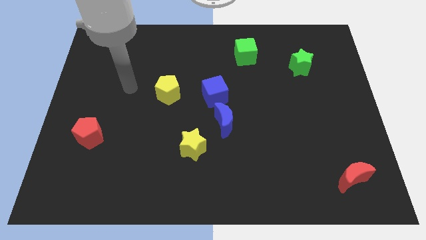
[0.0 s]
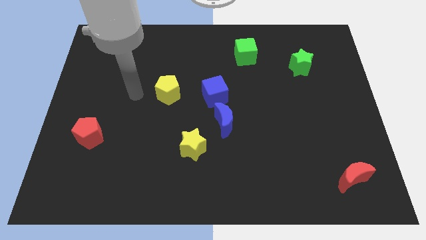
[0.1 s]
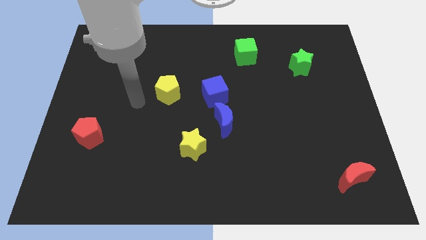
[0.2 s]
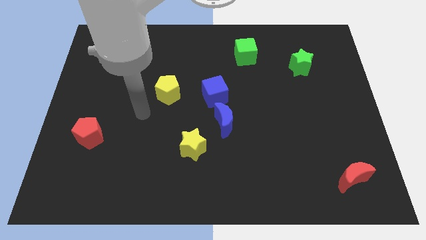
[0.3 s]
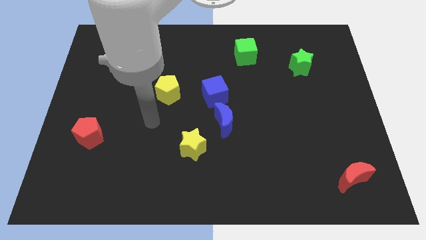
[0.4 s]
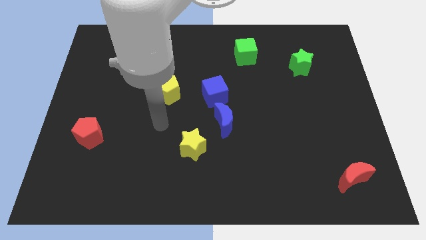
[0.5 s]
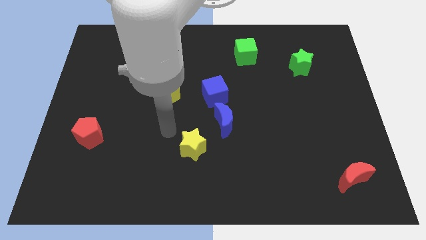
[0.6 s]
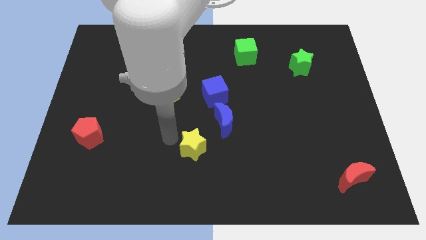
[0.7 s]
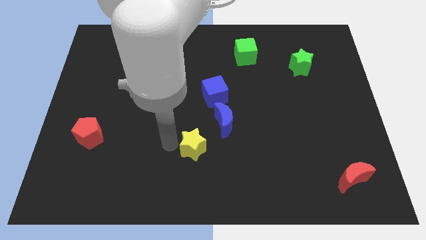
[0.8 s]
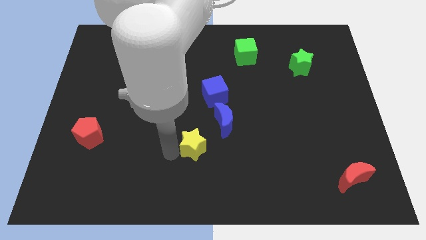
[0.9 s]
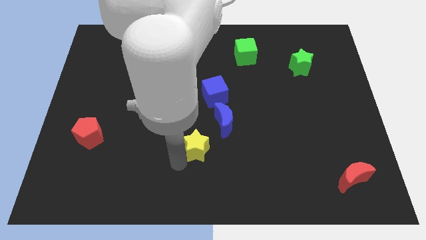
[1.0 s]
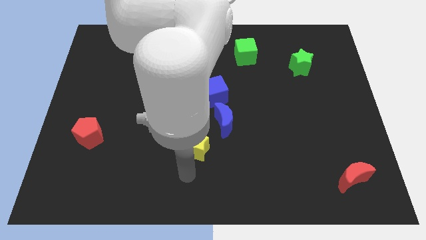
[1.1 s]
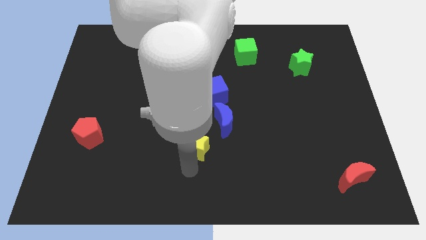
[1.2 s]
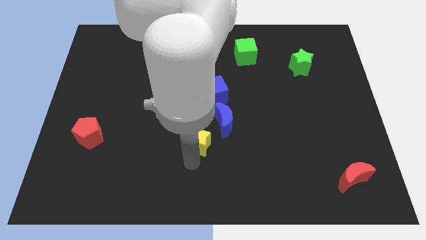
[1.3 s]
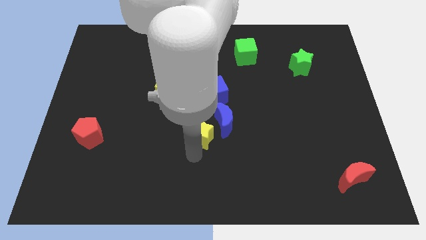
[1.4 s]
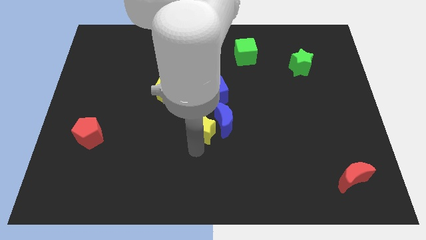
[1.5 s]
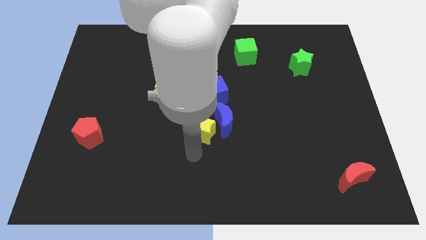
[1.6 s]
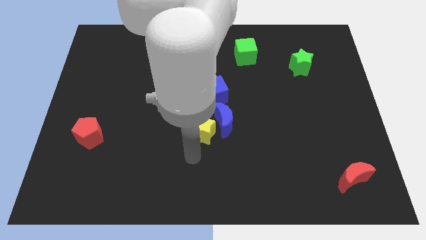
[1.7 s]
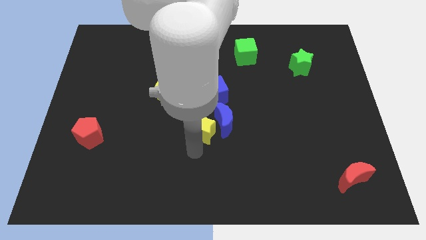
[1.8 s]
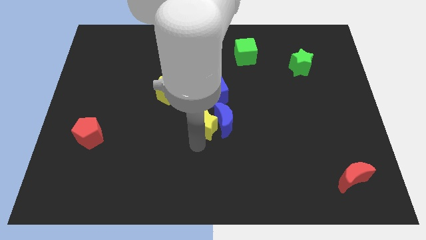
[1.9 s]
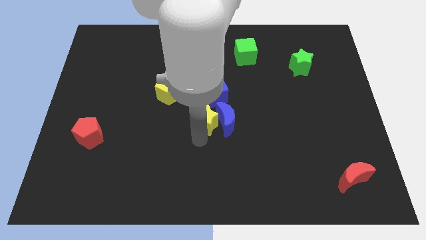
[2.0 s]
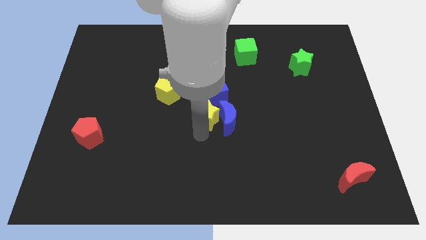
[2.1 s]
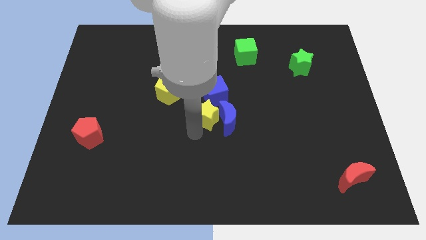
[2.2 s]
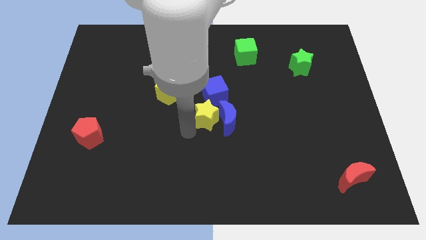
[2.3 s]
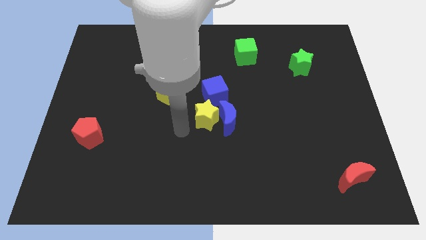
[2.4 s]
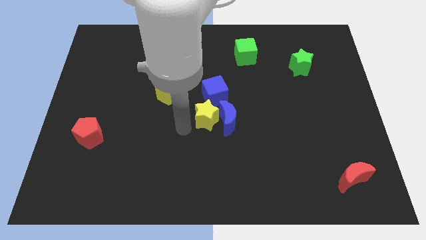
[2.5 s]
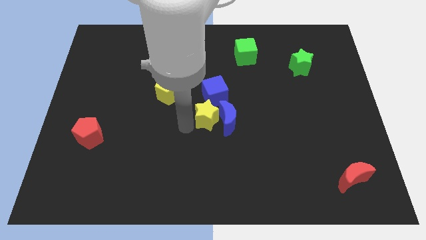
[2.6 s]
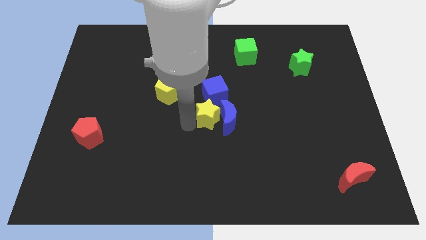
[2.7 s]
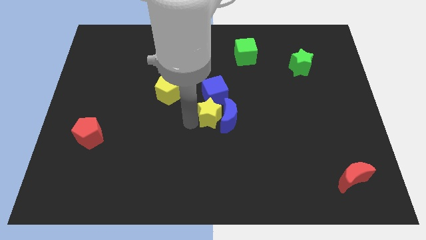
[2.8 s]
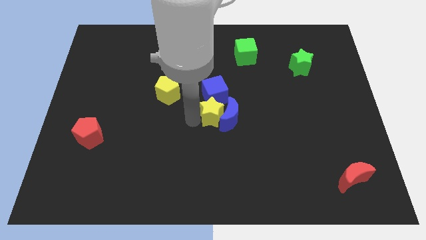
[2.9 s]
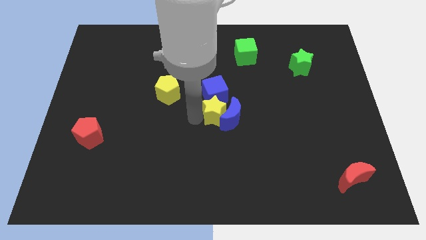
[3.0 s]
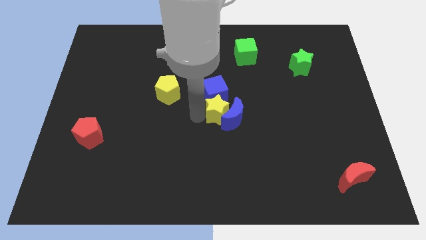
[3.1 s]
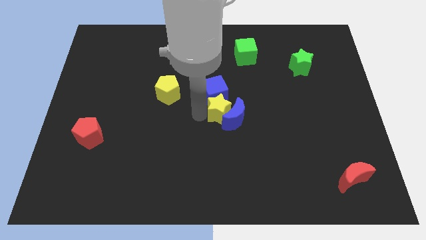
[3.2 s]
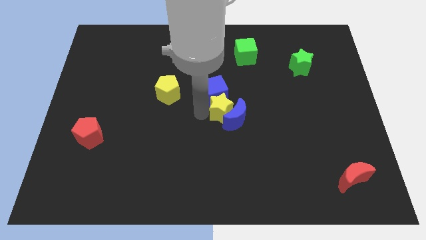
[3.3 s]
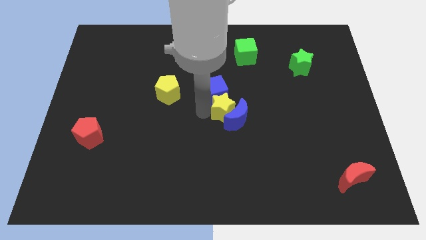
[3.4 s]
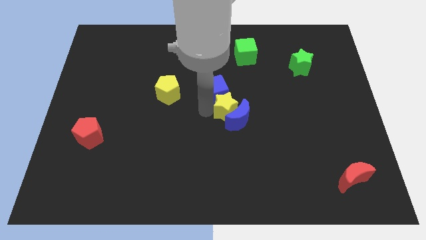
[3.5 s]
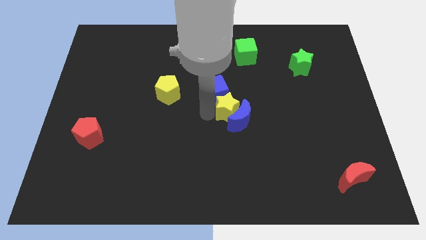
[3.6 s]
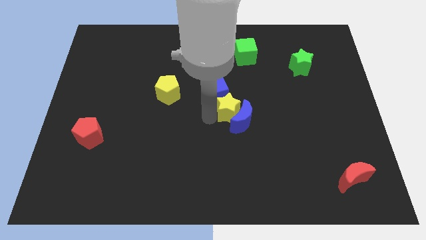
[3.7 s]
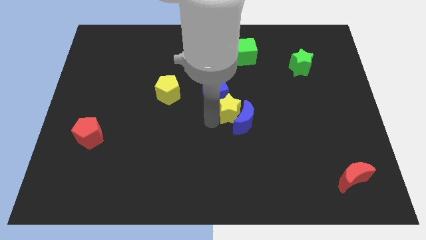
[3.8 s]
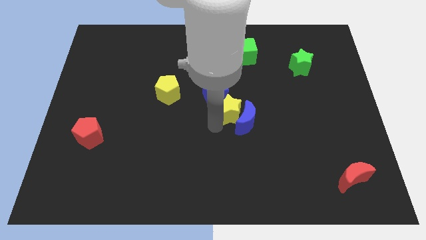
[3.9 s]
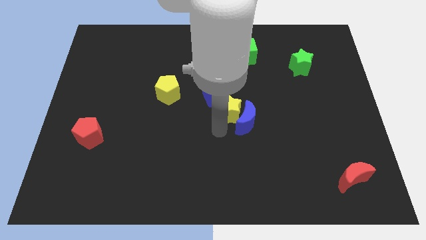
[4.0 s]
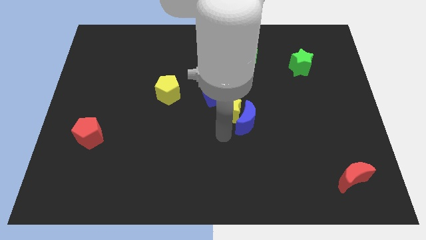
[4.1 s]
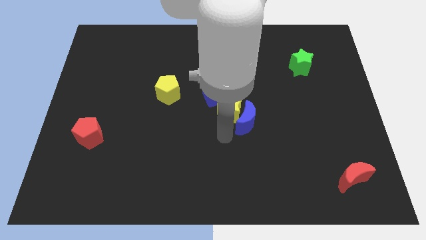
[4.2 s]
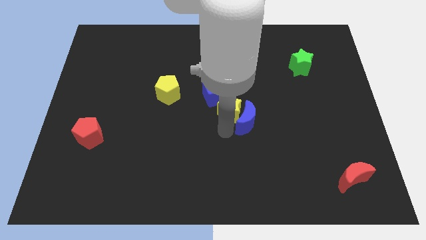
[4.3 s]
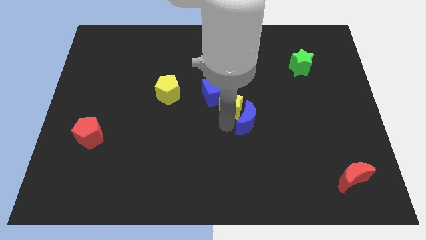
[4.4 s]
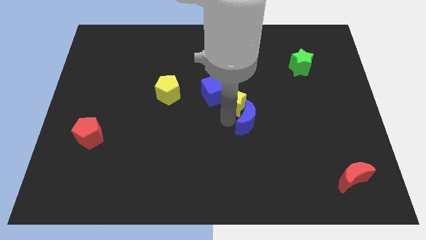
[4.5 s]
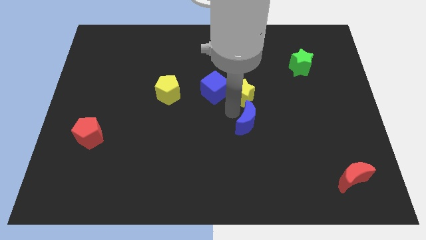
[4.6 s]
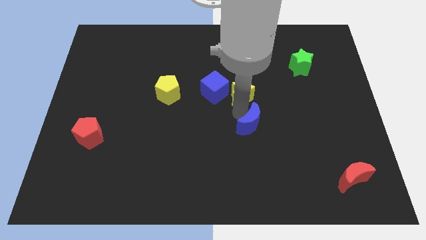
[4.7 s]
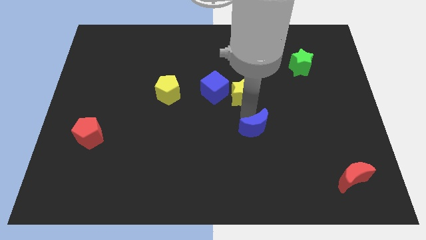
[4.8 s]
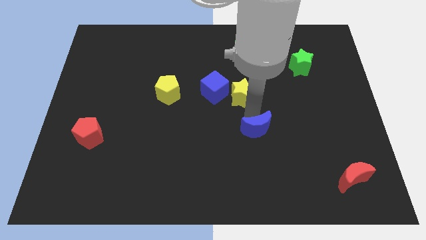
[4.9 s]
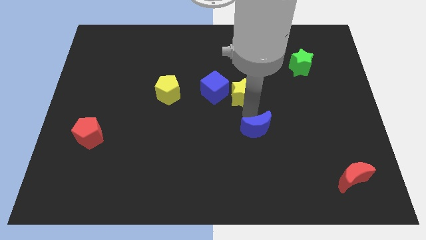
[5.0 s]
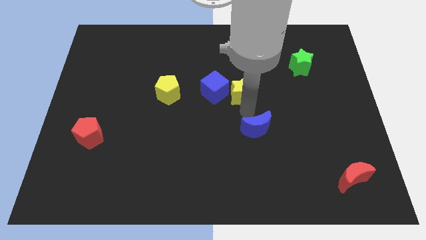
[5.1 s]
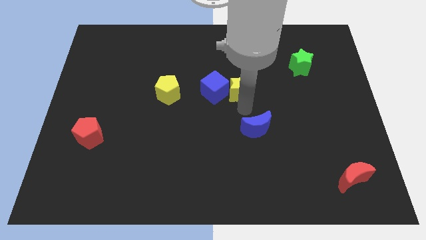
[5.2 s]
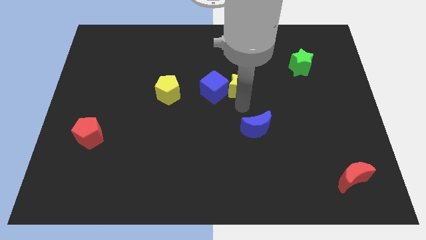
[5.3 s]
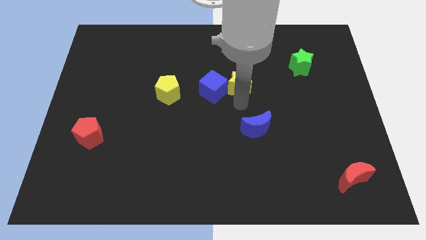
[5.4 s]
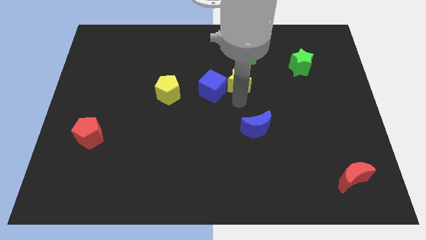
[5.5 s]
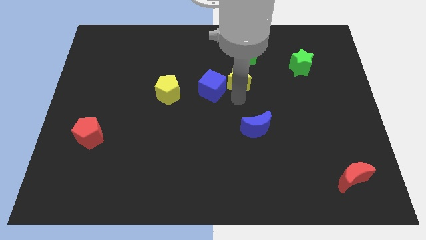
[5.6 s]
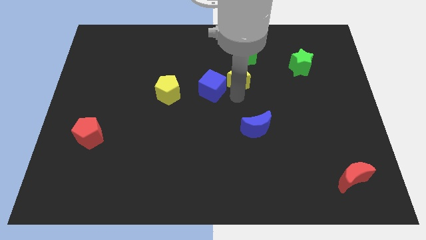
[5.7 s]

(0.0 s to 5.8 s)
put the yellow star to the bottom left side of the green cube

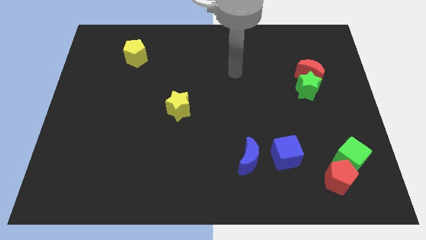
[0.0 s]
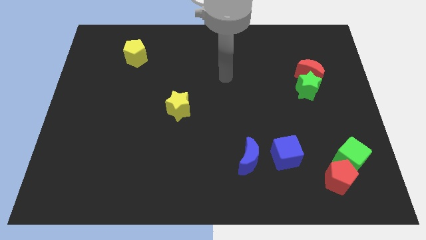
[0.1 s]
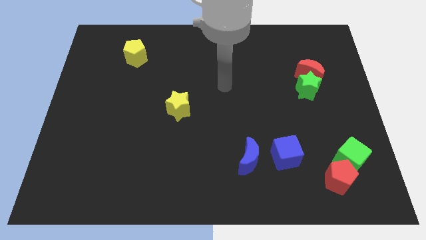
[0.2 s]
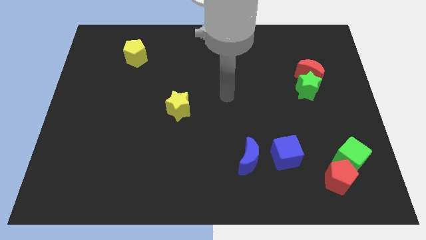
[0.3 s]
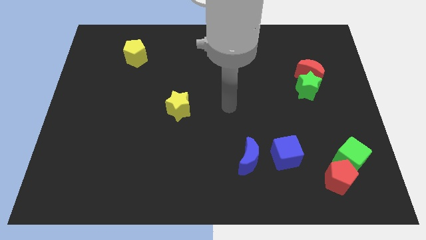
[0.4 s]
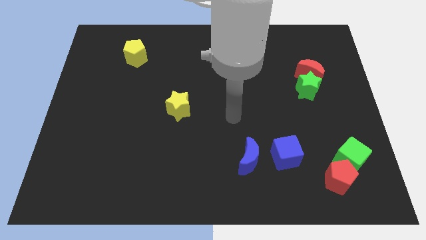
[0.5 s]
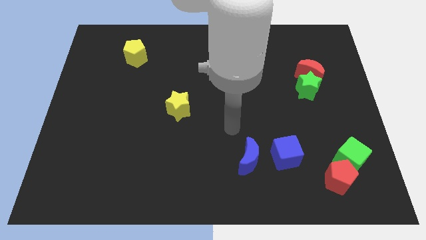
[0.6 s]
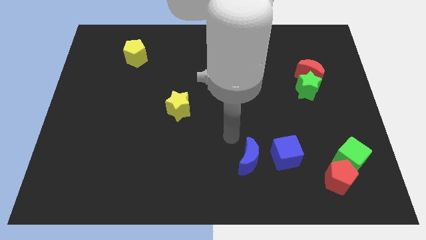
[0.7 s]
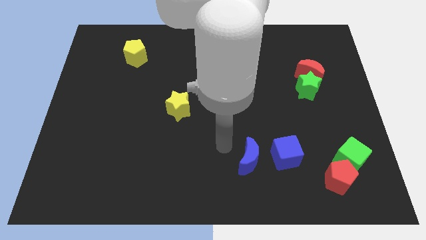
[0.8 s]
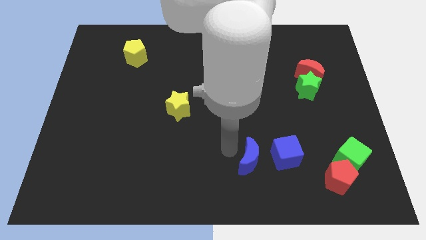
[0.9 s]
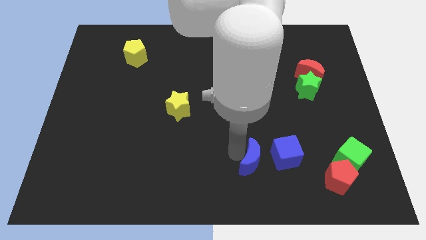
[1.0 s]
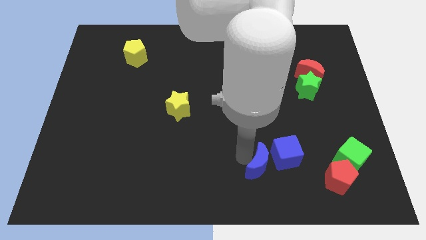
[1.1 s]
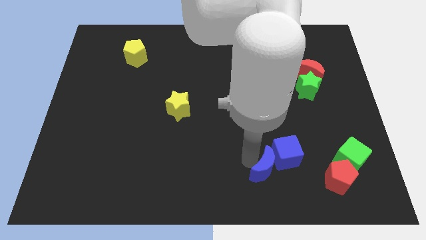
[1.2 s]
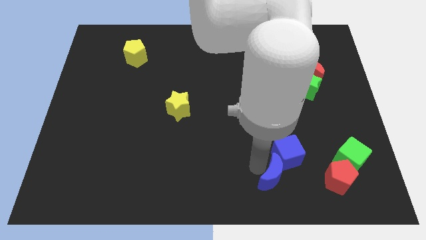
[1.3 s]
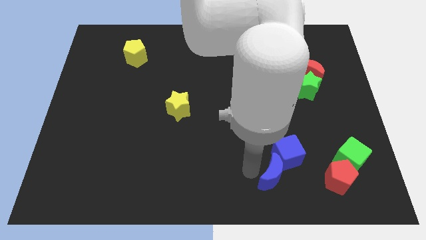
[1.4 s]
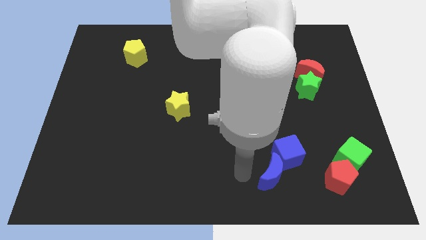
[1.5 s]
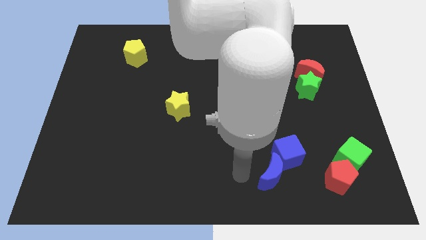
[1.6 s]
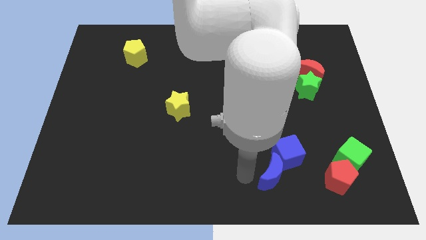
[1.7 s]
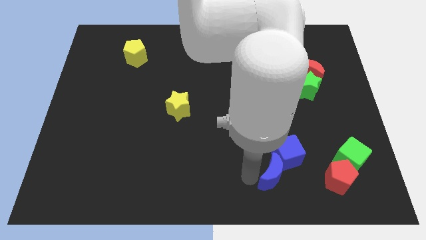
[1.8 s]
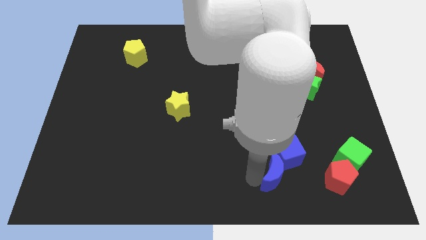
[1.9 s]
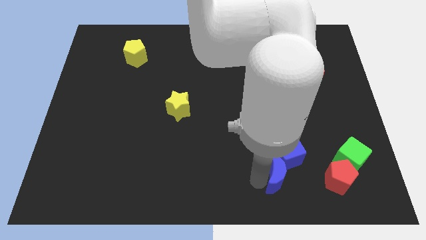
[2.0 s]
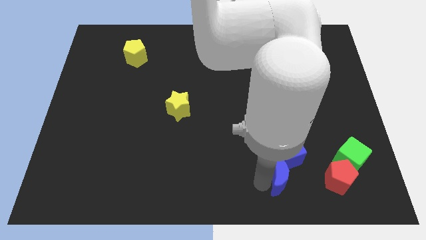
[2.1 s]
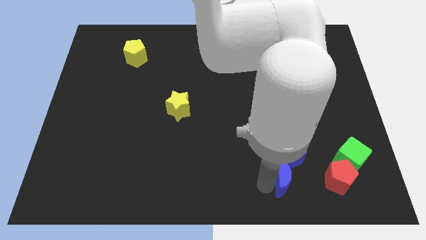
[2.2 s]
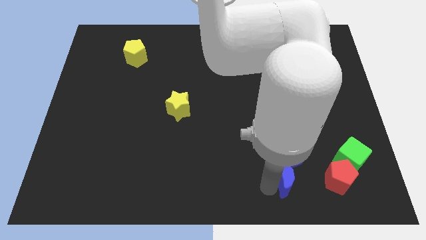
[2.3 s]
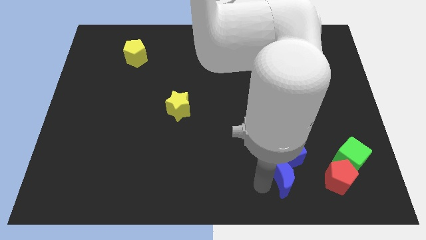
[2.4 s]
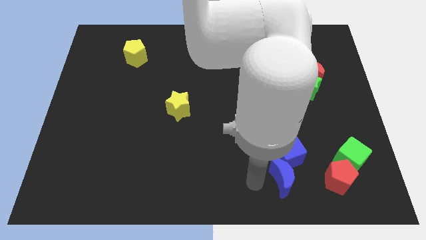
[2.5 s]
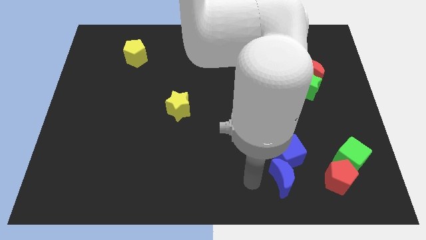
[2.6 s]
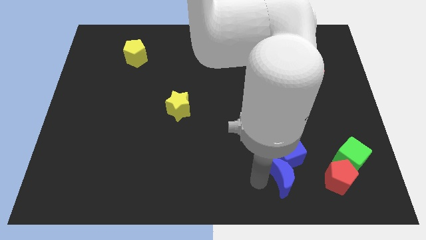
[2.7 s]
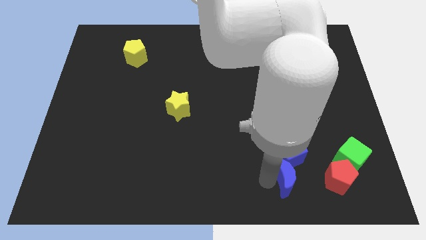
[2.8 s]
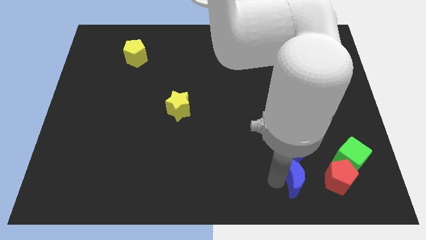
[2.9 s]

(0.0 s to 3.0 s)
move the blue moon diagonally down and to the right of the blue cube
